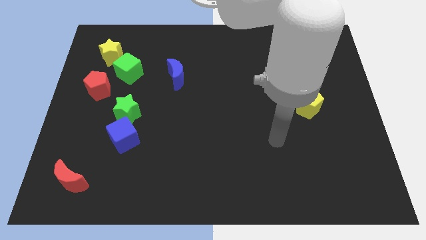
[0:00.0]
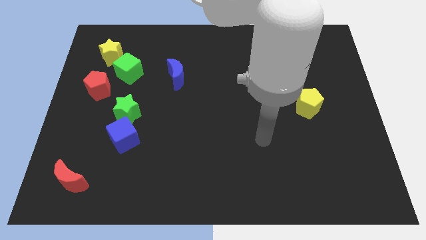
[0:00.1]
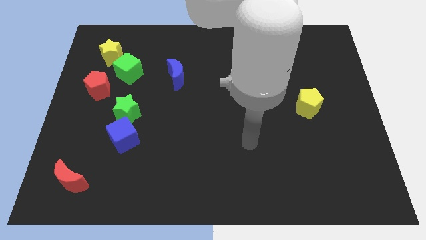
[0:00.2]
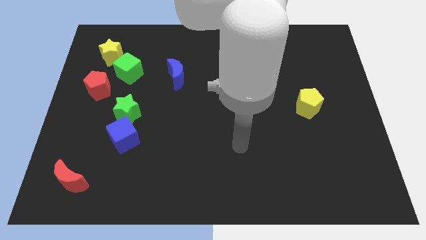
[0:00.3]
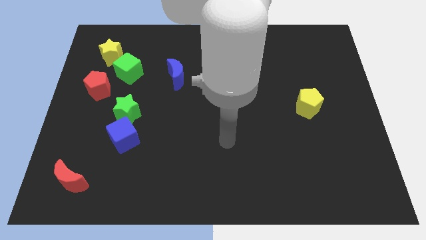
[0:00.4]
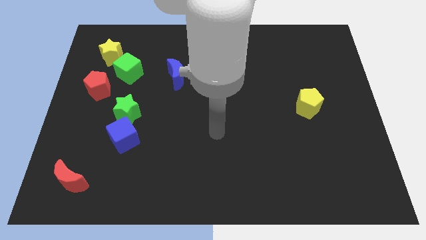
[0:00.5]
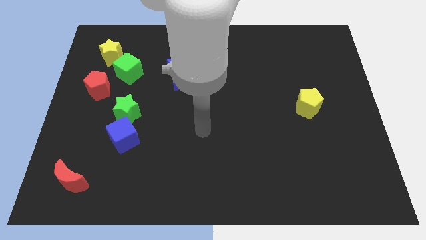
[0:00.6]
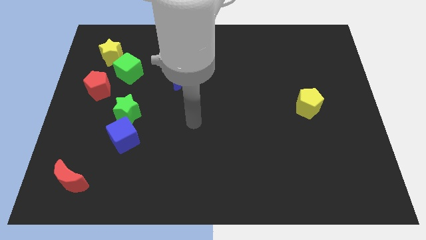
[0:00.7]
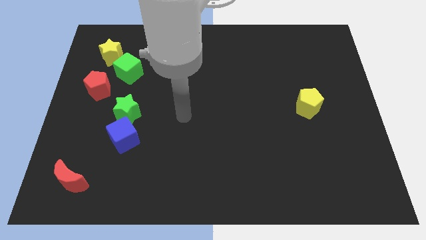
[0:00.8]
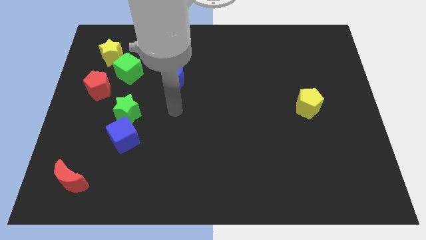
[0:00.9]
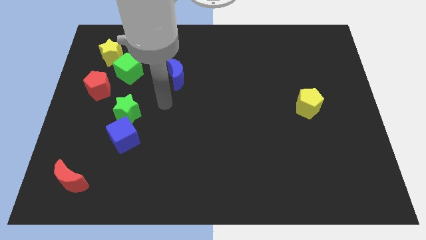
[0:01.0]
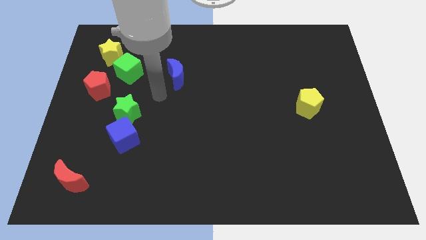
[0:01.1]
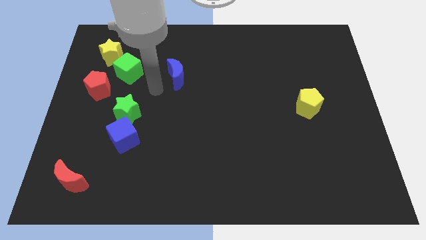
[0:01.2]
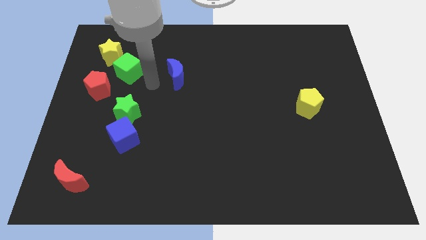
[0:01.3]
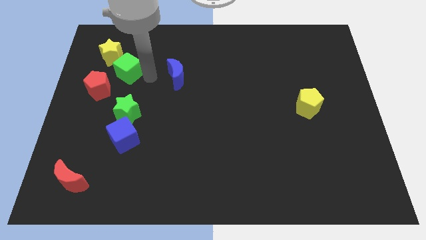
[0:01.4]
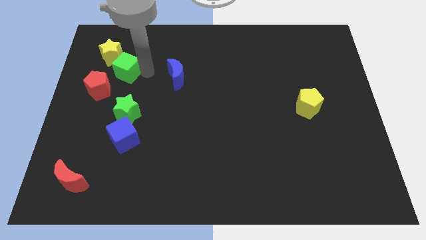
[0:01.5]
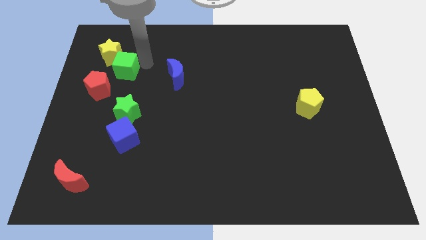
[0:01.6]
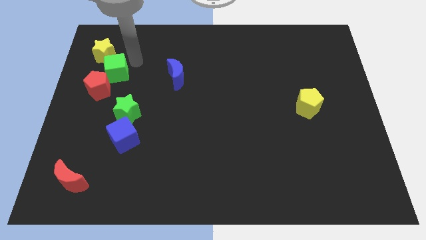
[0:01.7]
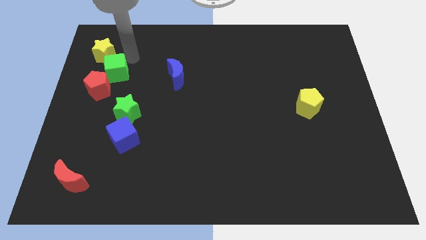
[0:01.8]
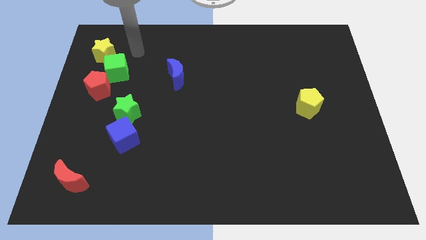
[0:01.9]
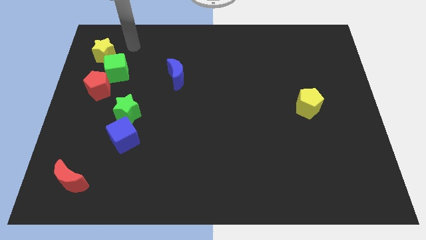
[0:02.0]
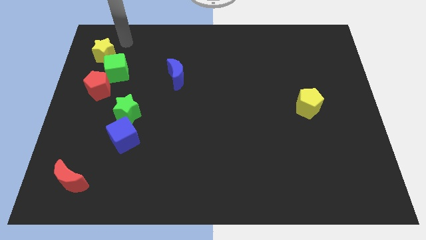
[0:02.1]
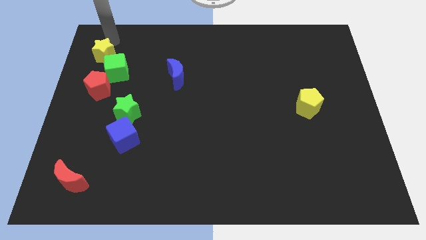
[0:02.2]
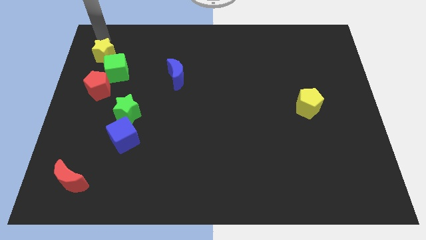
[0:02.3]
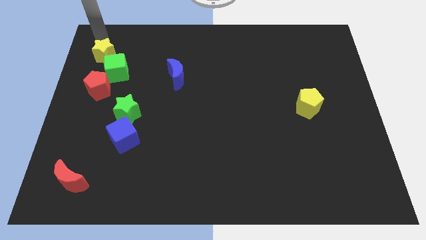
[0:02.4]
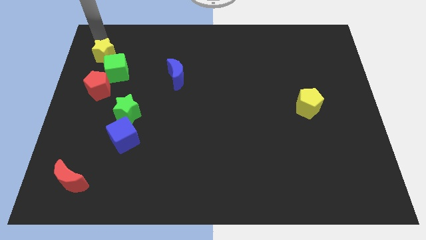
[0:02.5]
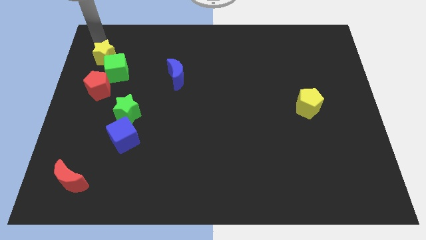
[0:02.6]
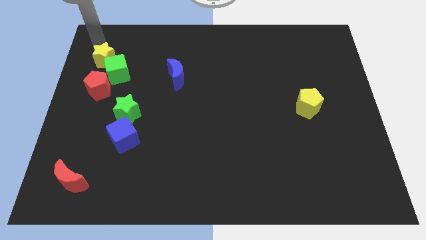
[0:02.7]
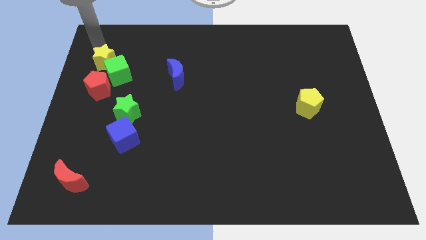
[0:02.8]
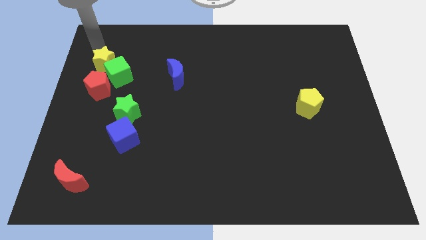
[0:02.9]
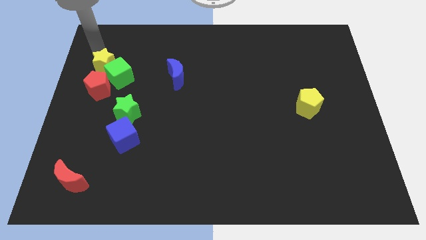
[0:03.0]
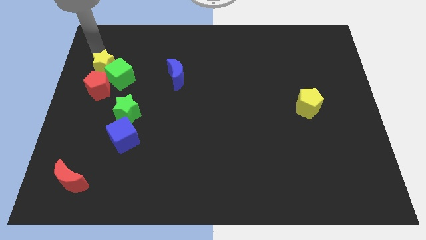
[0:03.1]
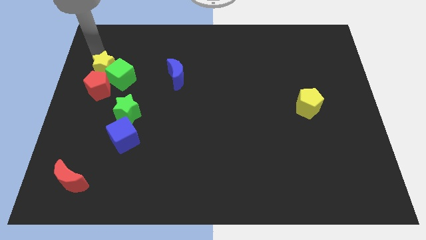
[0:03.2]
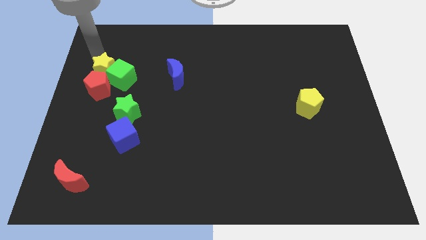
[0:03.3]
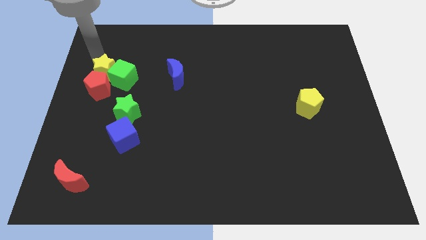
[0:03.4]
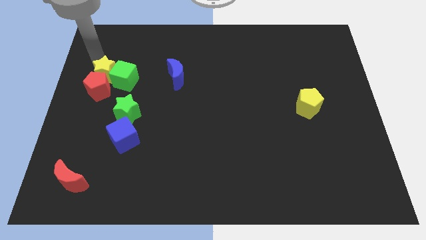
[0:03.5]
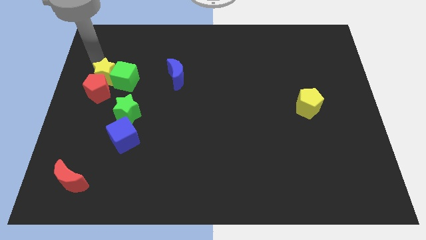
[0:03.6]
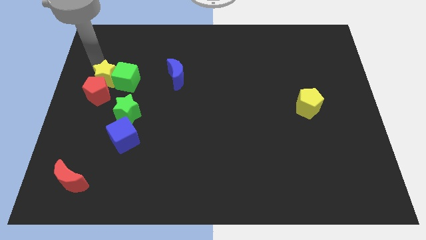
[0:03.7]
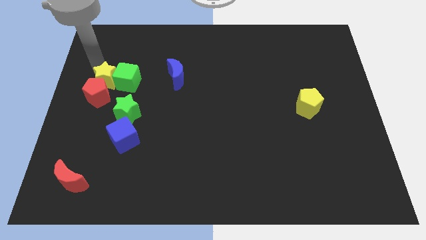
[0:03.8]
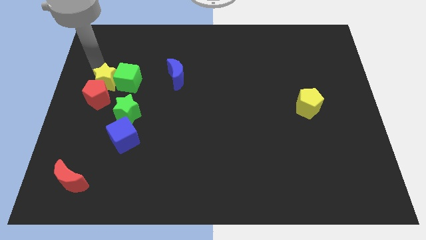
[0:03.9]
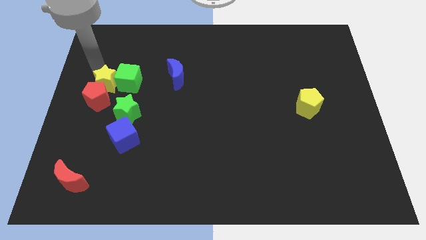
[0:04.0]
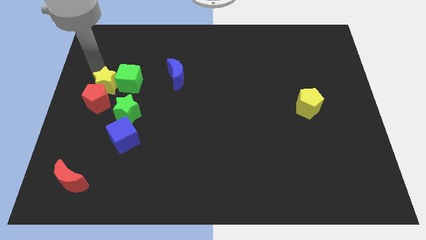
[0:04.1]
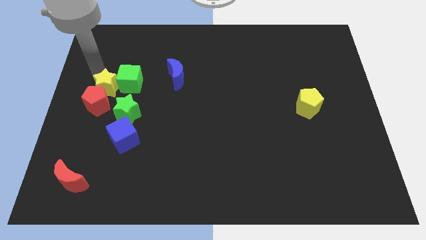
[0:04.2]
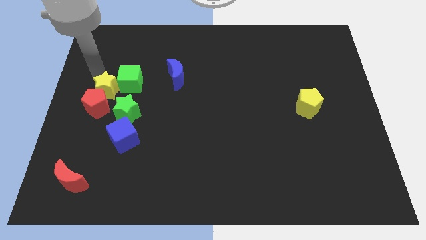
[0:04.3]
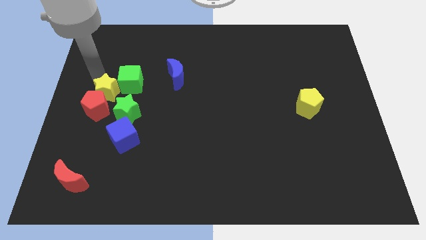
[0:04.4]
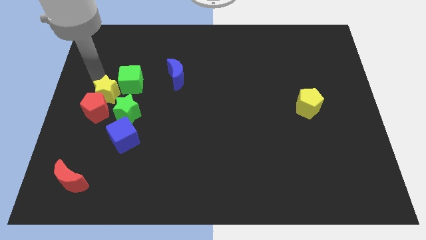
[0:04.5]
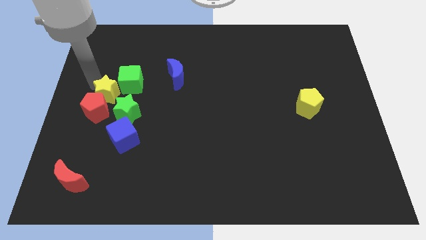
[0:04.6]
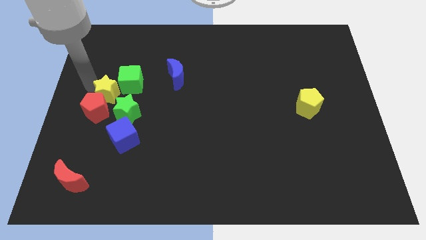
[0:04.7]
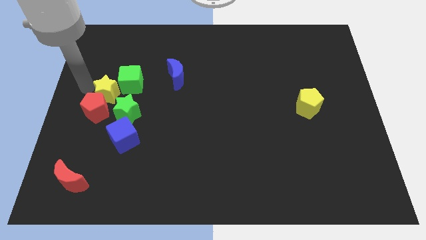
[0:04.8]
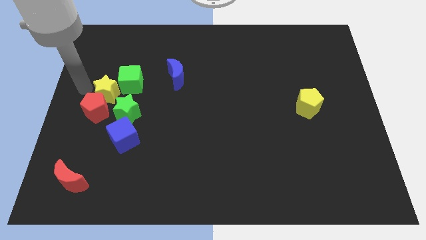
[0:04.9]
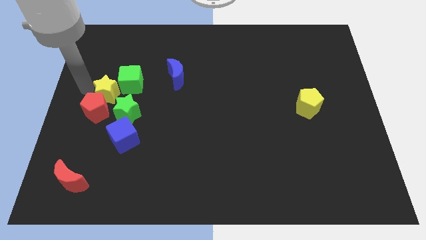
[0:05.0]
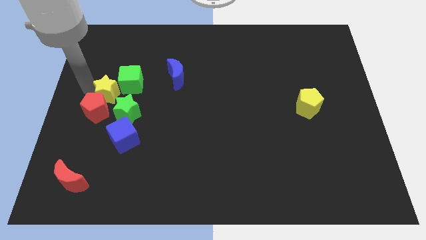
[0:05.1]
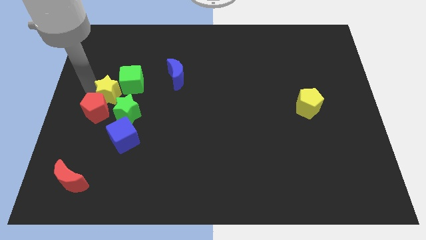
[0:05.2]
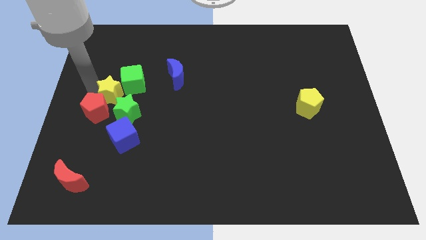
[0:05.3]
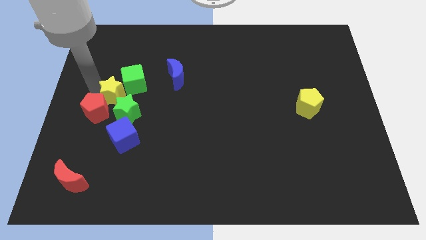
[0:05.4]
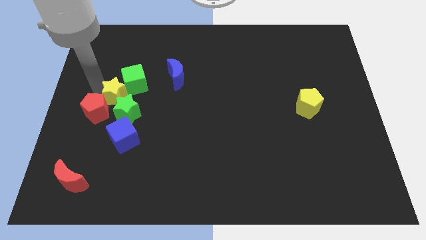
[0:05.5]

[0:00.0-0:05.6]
slide the yellow star to the green star

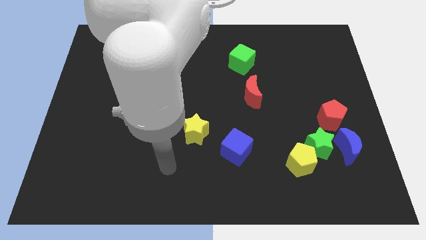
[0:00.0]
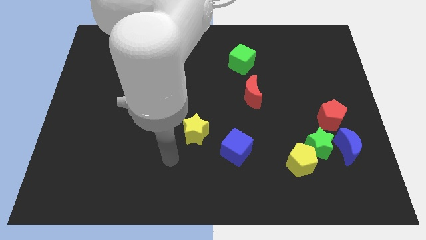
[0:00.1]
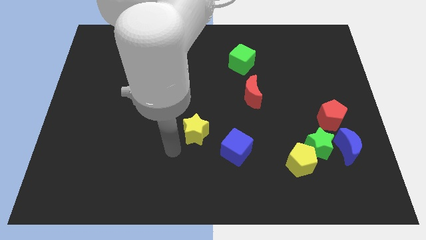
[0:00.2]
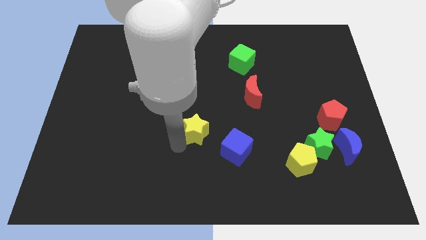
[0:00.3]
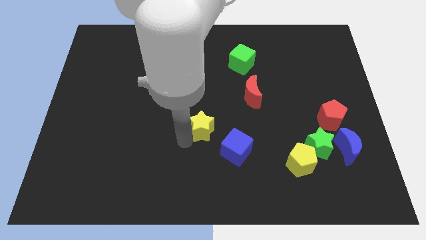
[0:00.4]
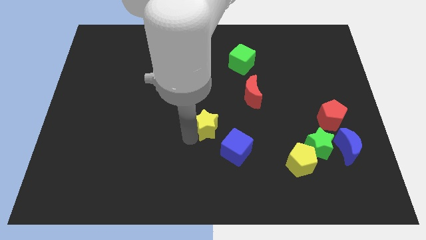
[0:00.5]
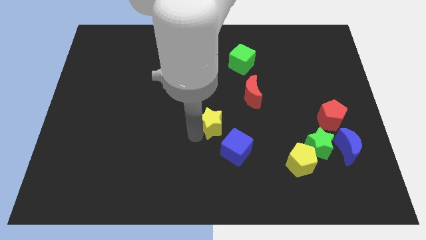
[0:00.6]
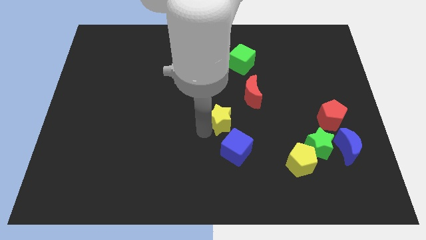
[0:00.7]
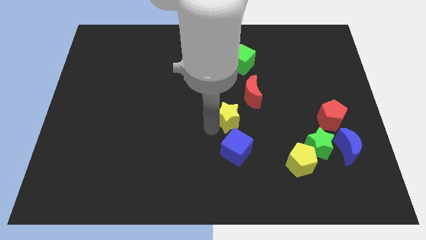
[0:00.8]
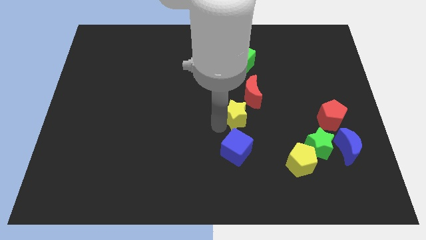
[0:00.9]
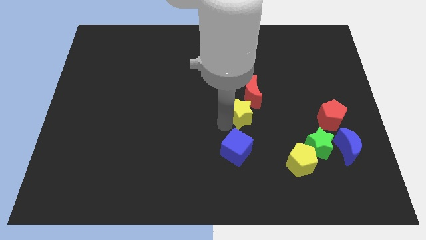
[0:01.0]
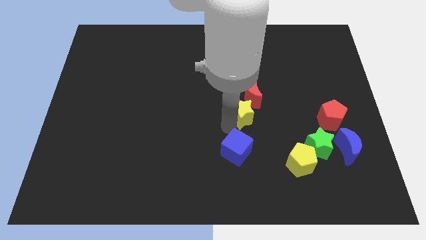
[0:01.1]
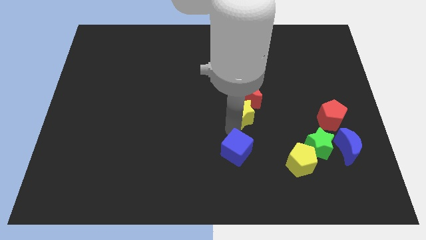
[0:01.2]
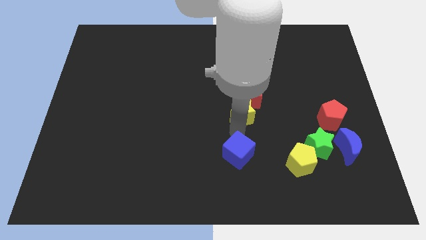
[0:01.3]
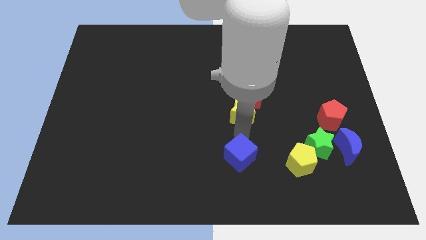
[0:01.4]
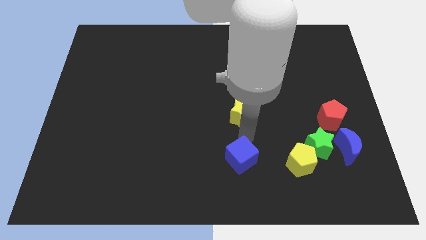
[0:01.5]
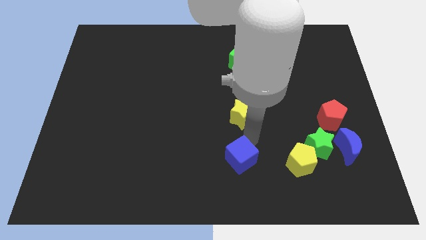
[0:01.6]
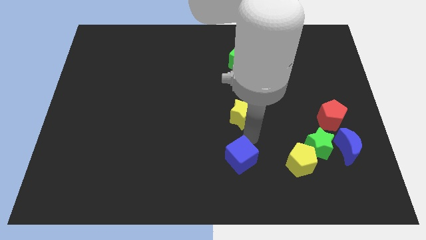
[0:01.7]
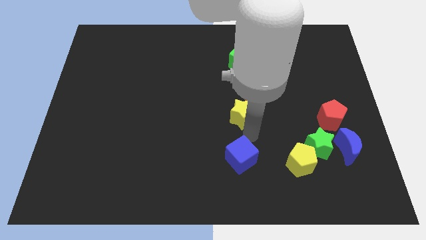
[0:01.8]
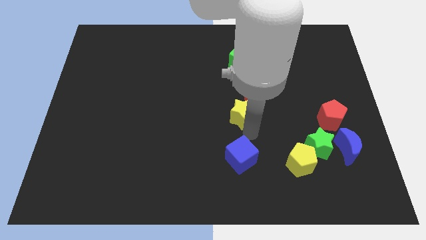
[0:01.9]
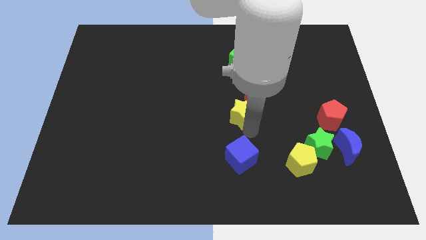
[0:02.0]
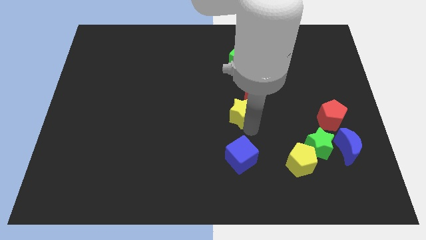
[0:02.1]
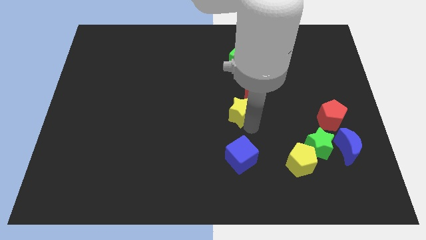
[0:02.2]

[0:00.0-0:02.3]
push the yellow star close to the red moon
